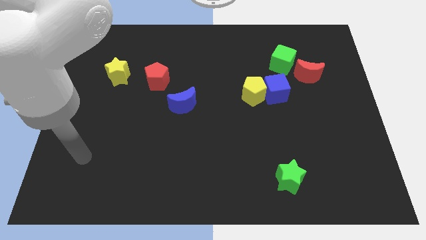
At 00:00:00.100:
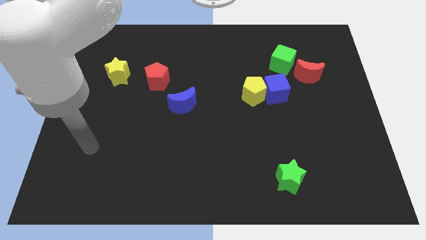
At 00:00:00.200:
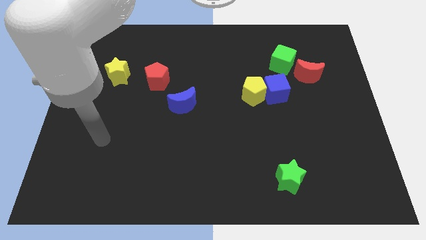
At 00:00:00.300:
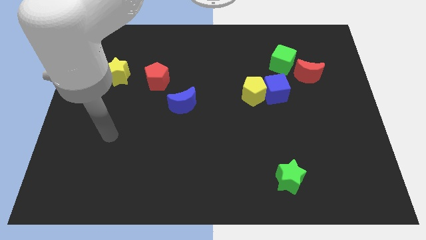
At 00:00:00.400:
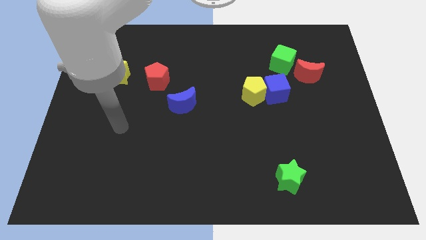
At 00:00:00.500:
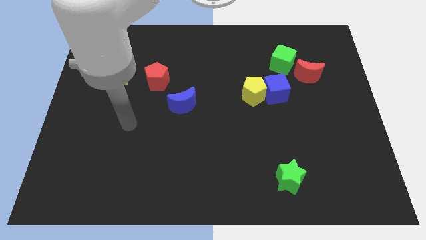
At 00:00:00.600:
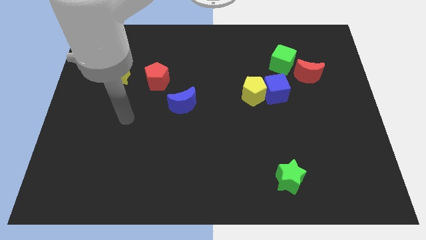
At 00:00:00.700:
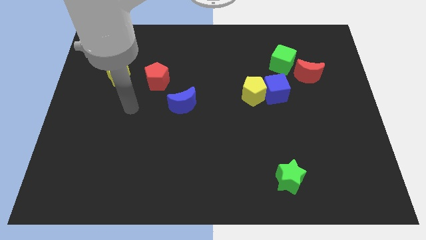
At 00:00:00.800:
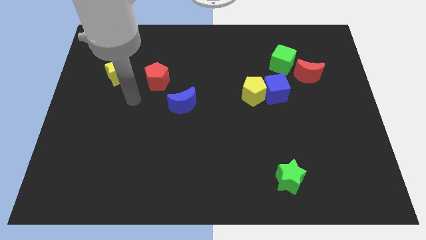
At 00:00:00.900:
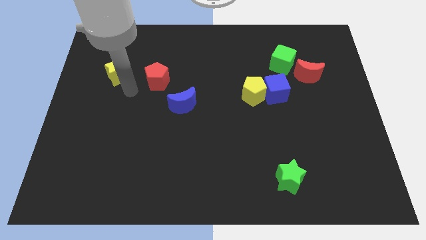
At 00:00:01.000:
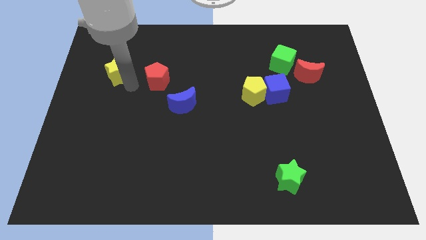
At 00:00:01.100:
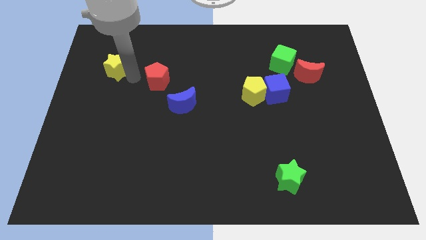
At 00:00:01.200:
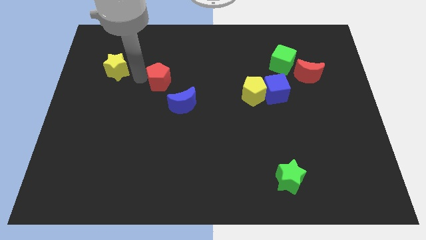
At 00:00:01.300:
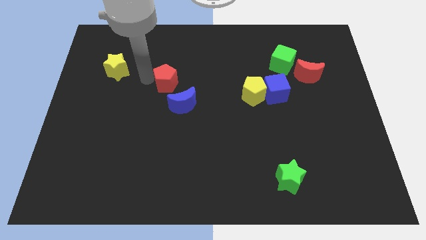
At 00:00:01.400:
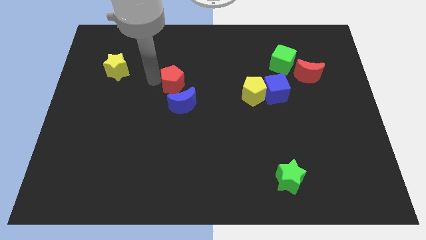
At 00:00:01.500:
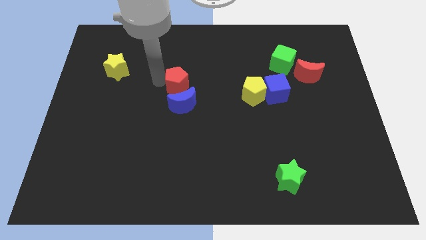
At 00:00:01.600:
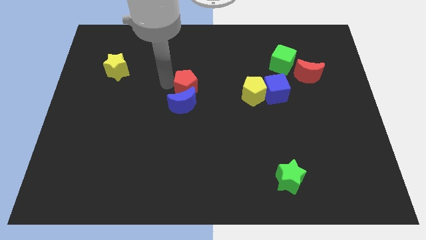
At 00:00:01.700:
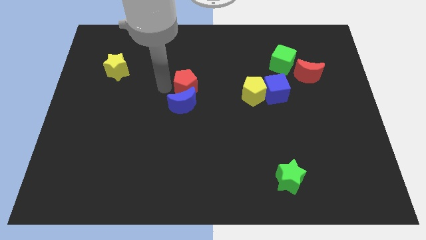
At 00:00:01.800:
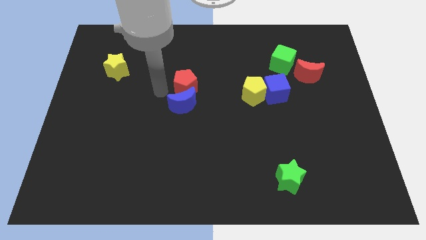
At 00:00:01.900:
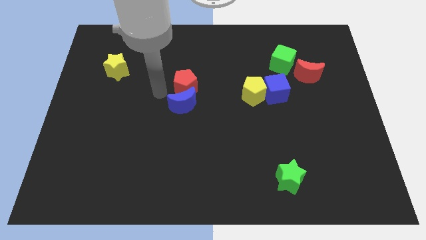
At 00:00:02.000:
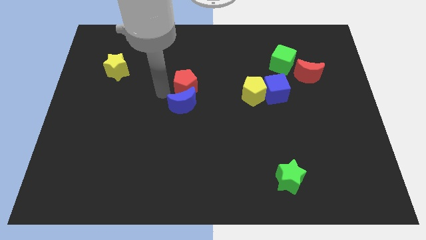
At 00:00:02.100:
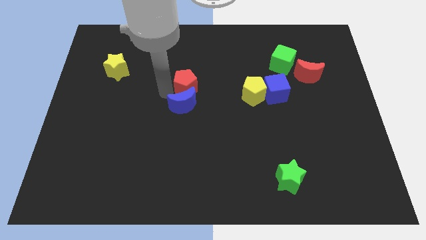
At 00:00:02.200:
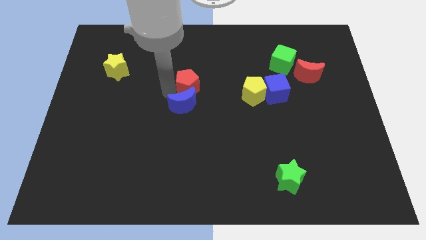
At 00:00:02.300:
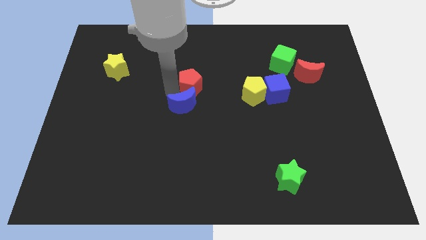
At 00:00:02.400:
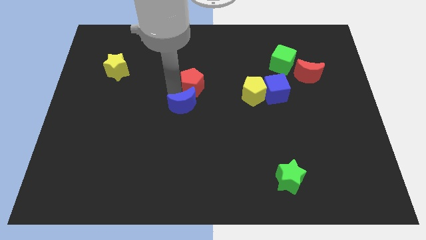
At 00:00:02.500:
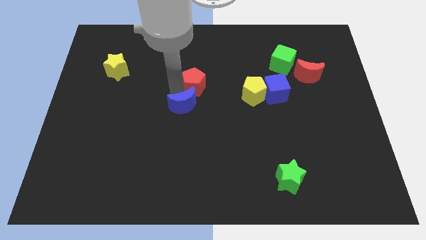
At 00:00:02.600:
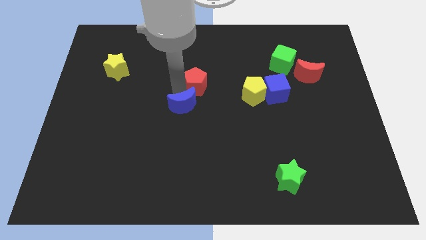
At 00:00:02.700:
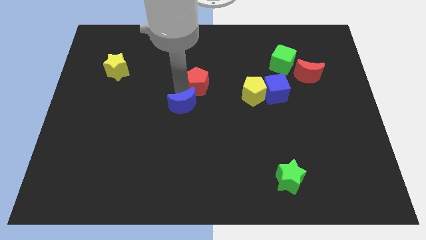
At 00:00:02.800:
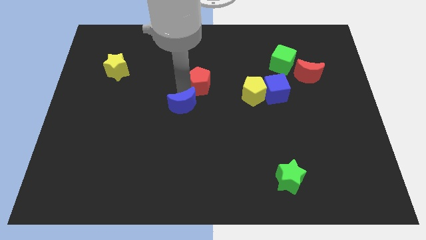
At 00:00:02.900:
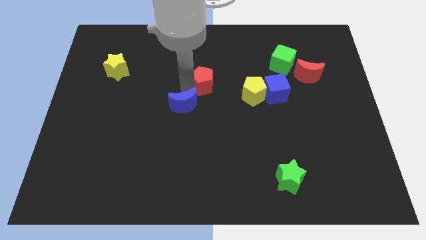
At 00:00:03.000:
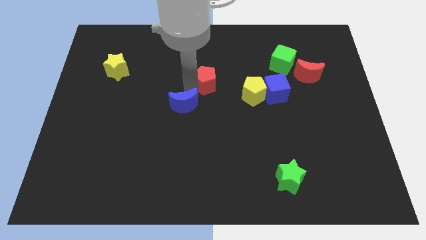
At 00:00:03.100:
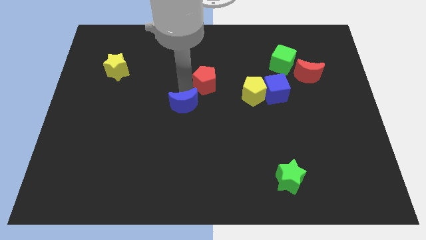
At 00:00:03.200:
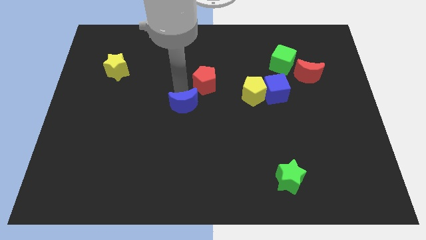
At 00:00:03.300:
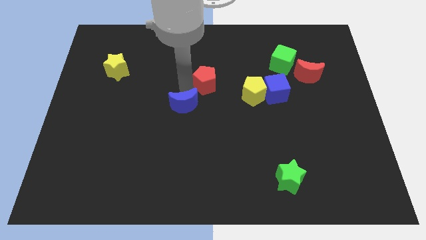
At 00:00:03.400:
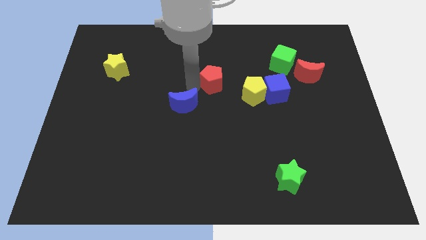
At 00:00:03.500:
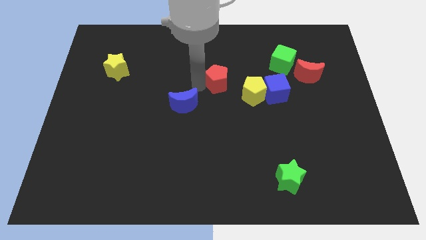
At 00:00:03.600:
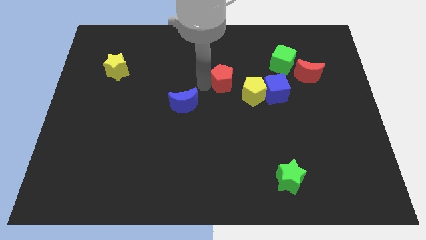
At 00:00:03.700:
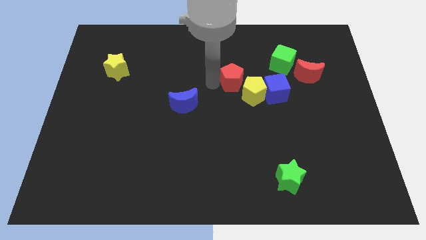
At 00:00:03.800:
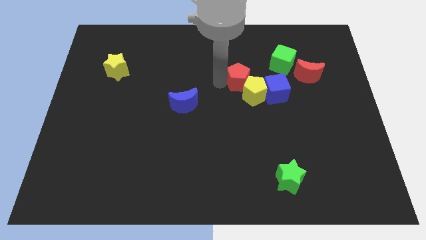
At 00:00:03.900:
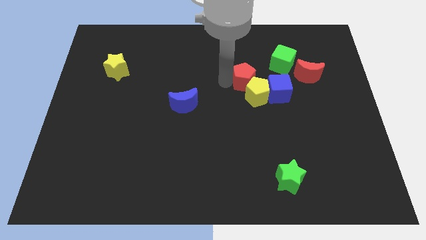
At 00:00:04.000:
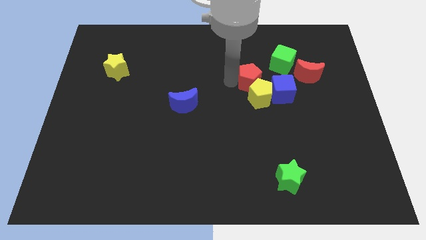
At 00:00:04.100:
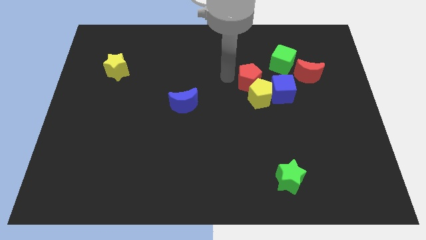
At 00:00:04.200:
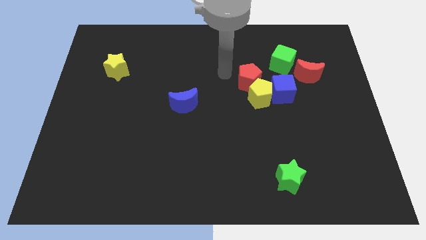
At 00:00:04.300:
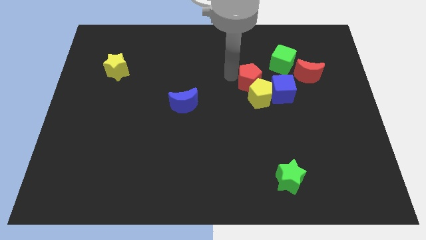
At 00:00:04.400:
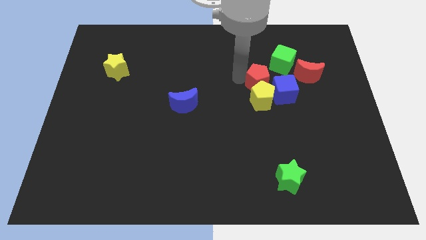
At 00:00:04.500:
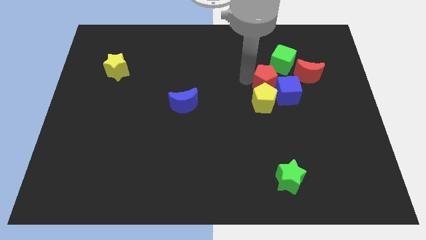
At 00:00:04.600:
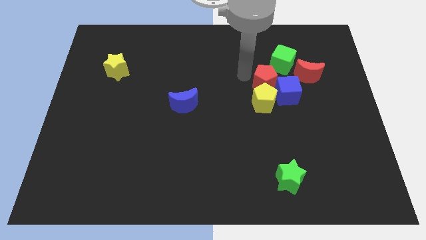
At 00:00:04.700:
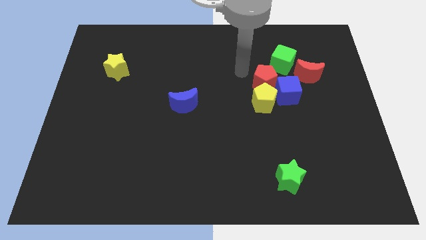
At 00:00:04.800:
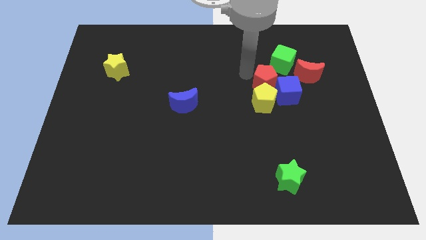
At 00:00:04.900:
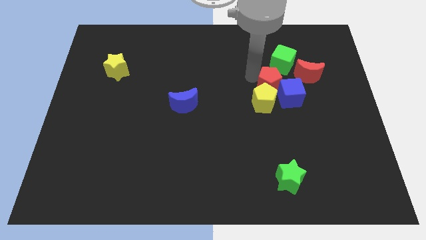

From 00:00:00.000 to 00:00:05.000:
move the red pentagon towards the blue cube

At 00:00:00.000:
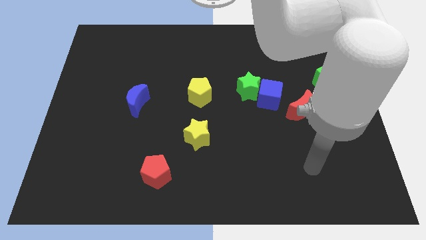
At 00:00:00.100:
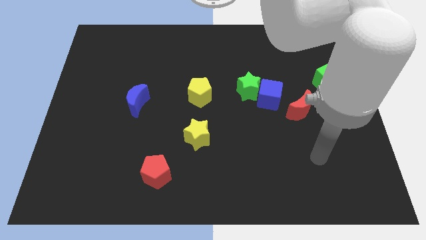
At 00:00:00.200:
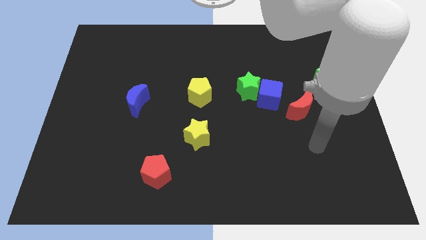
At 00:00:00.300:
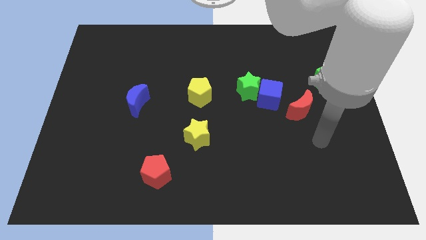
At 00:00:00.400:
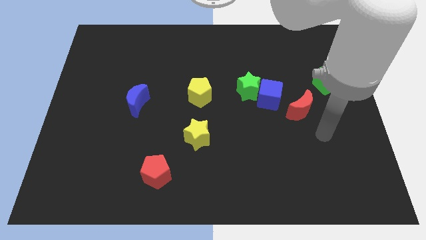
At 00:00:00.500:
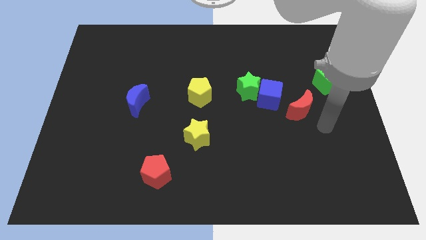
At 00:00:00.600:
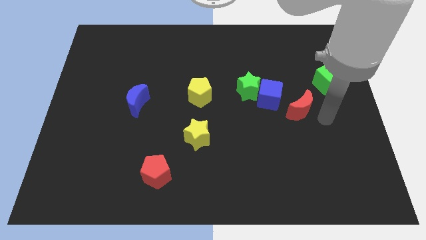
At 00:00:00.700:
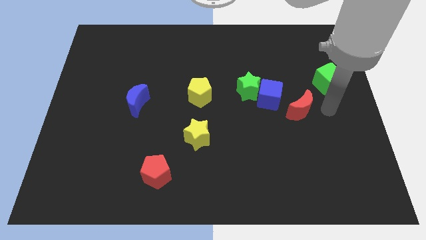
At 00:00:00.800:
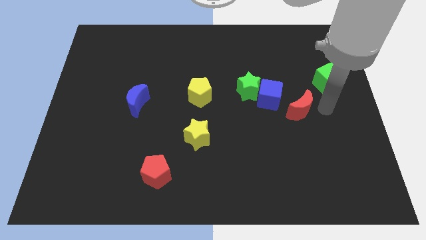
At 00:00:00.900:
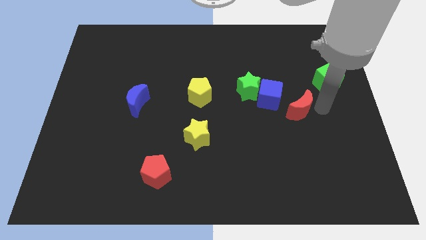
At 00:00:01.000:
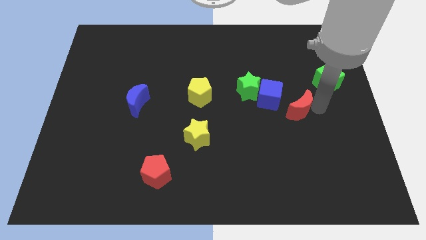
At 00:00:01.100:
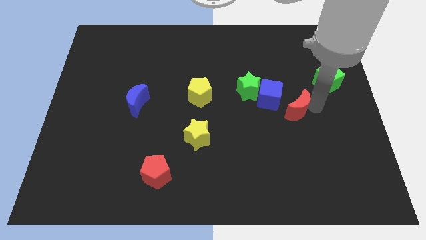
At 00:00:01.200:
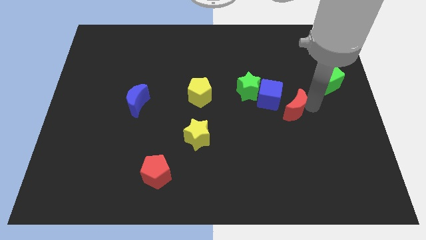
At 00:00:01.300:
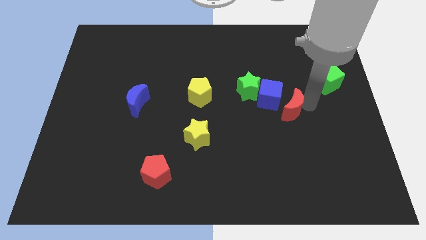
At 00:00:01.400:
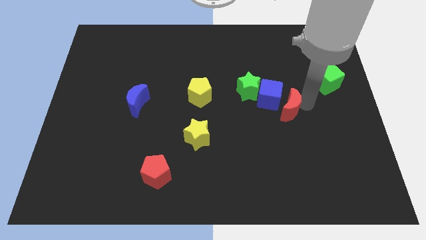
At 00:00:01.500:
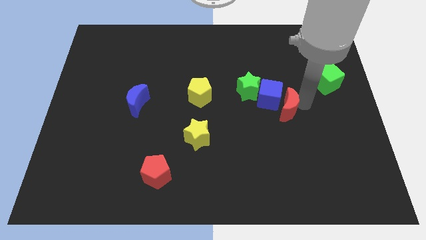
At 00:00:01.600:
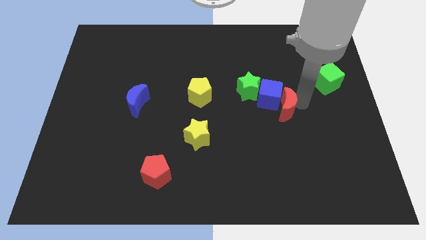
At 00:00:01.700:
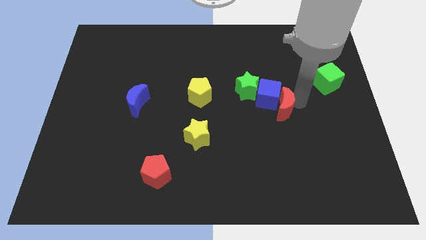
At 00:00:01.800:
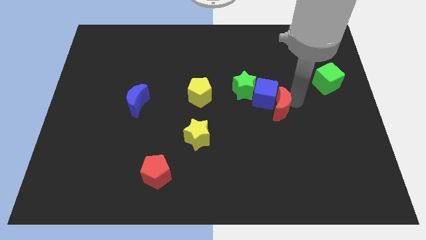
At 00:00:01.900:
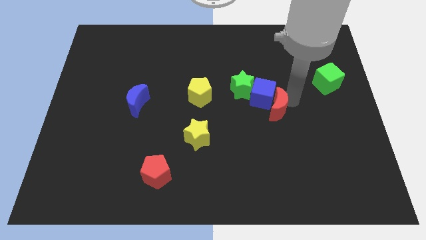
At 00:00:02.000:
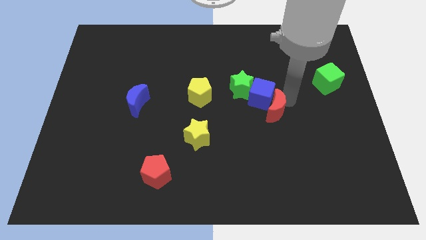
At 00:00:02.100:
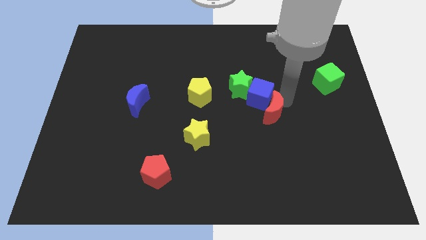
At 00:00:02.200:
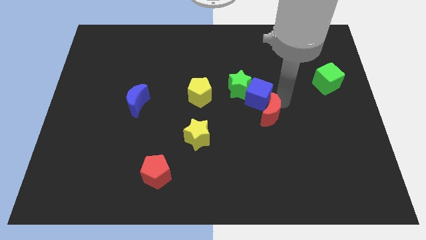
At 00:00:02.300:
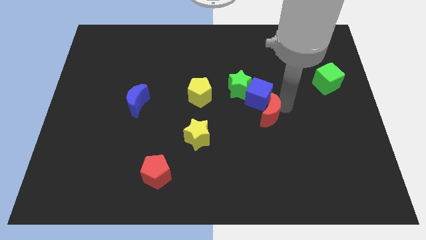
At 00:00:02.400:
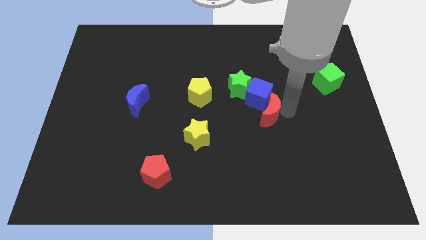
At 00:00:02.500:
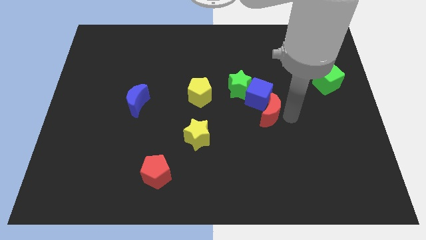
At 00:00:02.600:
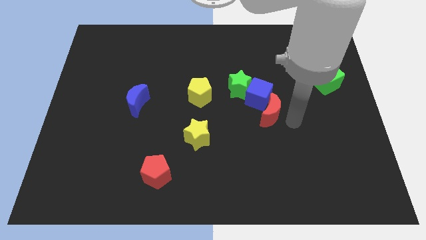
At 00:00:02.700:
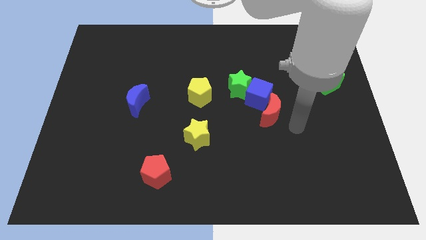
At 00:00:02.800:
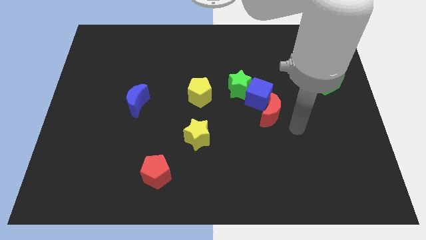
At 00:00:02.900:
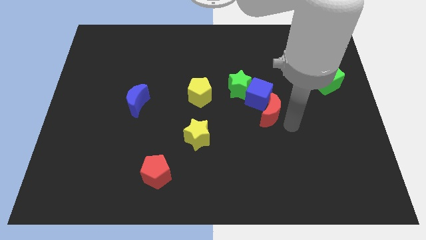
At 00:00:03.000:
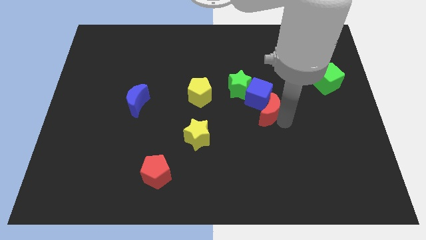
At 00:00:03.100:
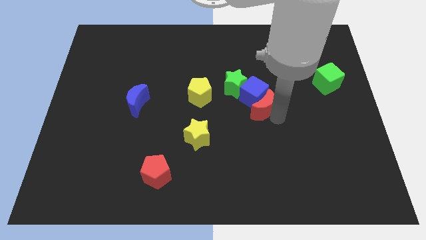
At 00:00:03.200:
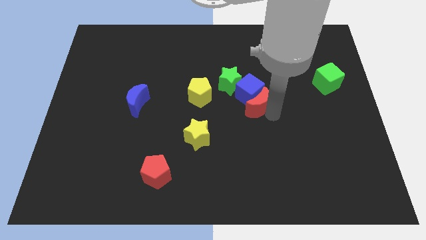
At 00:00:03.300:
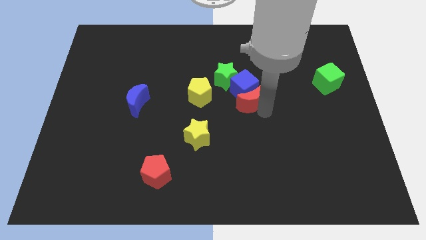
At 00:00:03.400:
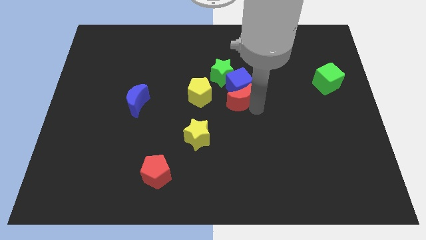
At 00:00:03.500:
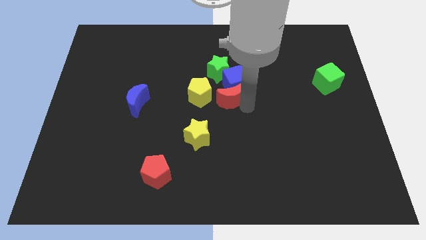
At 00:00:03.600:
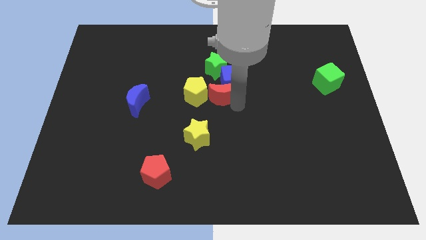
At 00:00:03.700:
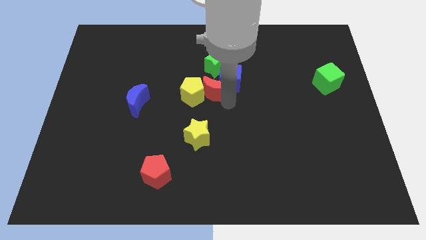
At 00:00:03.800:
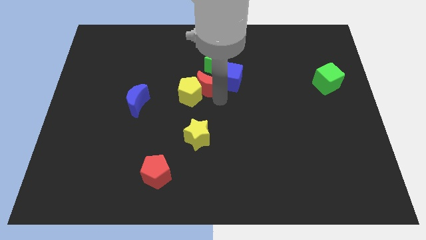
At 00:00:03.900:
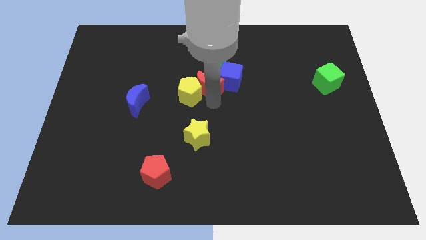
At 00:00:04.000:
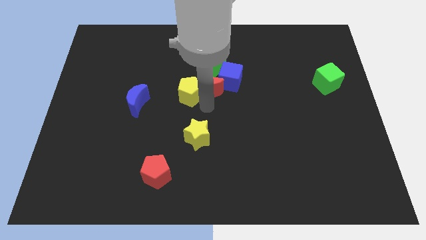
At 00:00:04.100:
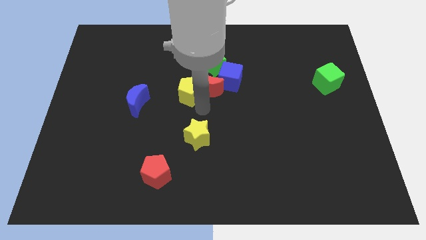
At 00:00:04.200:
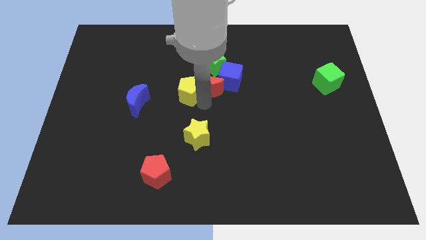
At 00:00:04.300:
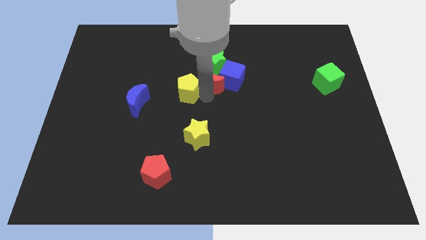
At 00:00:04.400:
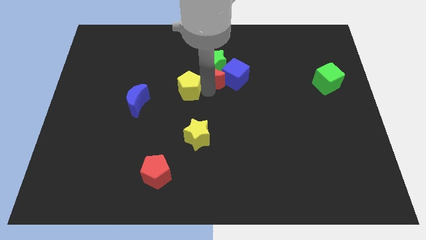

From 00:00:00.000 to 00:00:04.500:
put the red moon close to the green star
